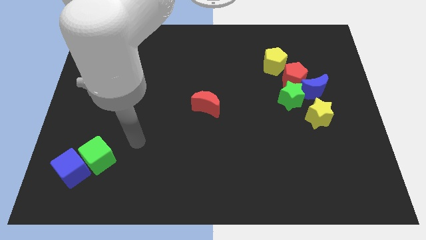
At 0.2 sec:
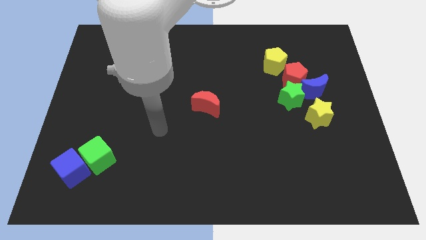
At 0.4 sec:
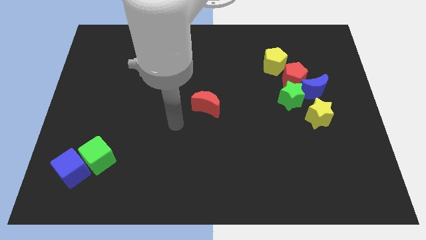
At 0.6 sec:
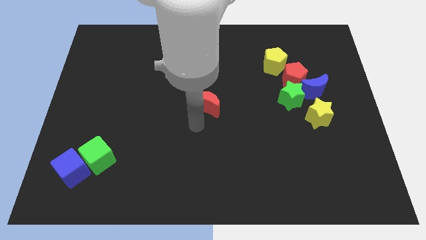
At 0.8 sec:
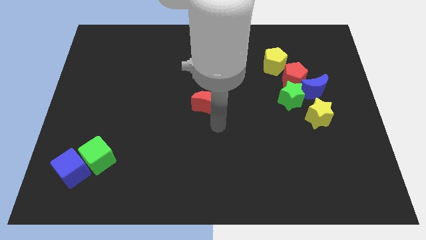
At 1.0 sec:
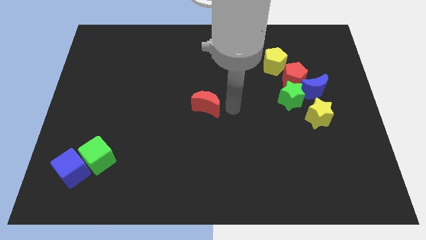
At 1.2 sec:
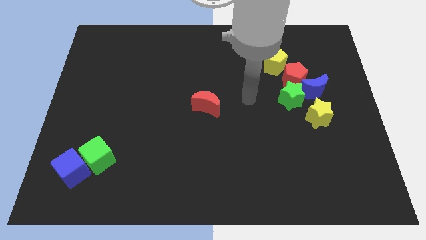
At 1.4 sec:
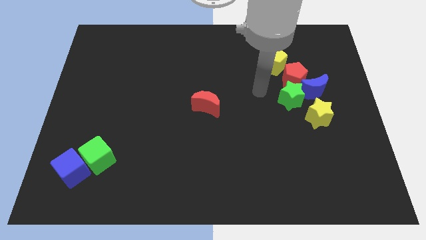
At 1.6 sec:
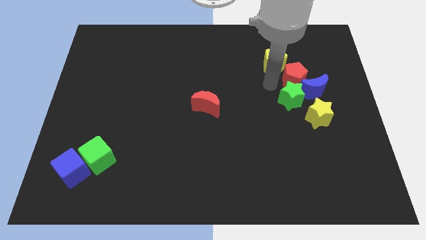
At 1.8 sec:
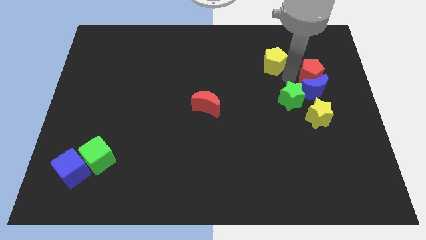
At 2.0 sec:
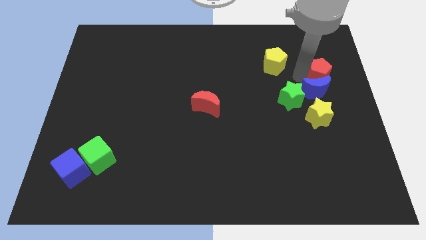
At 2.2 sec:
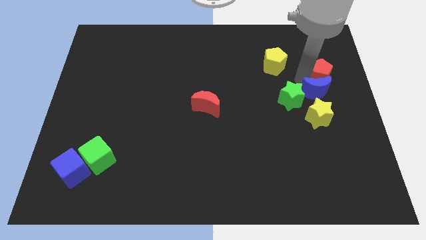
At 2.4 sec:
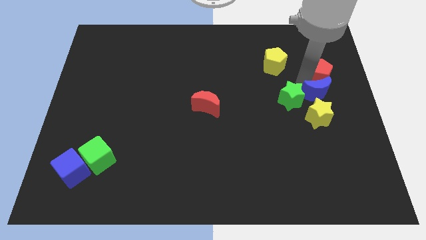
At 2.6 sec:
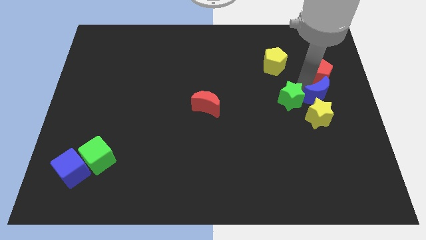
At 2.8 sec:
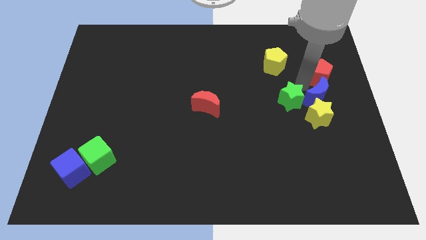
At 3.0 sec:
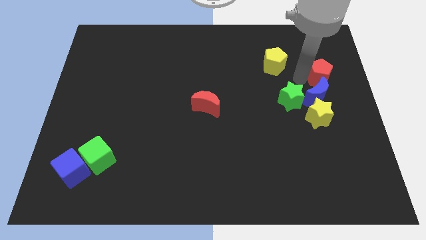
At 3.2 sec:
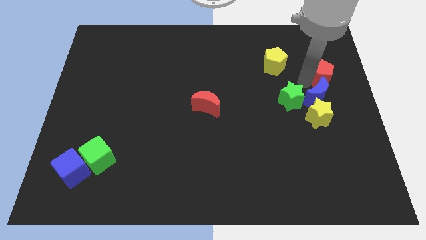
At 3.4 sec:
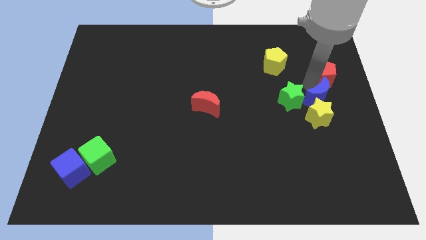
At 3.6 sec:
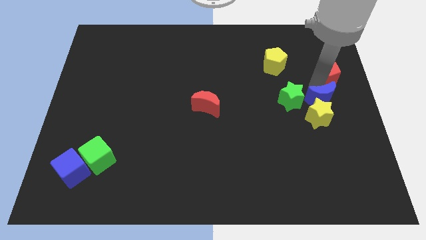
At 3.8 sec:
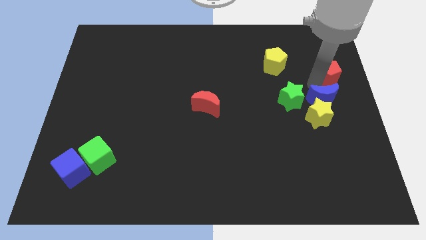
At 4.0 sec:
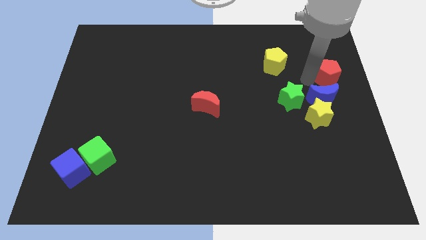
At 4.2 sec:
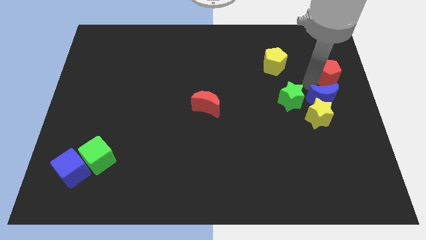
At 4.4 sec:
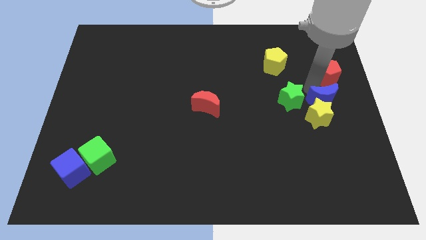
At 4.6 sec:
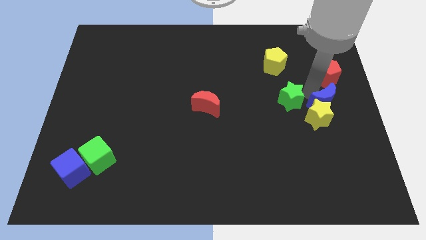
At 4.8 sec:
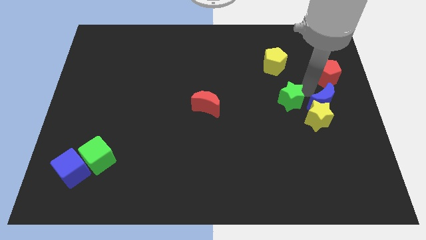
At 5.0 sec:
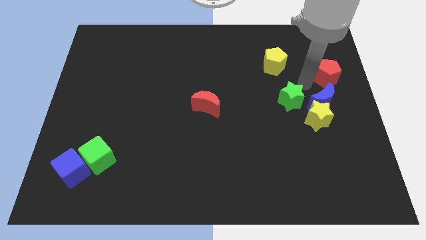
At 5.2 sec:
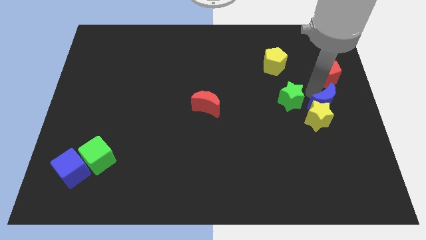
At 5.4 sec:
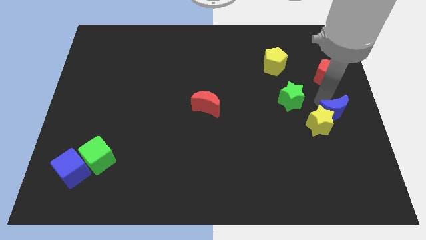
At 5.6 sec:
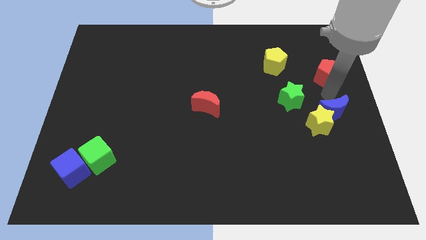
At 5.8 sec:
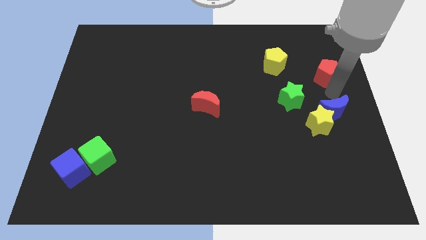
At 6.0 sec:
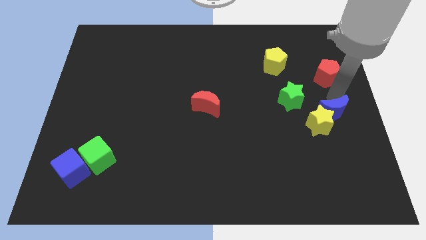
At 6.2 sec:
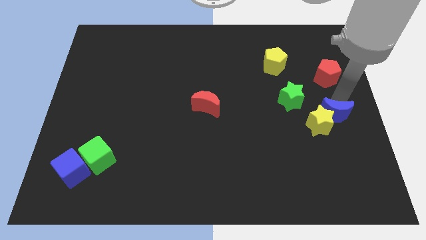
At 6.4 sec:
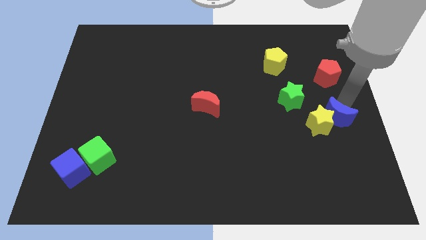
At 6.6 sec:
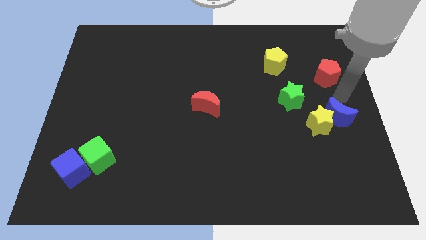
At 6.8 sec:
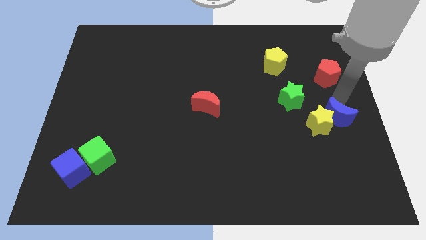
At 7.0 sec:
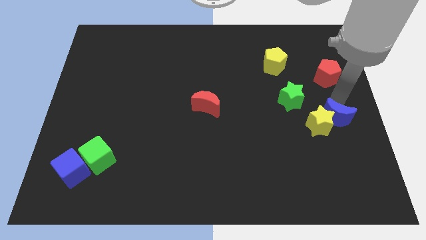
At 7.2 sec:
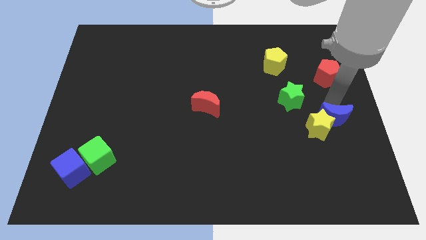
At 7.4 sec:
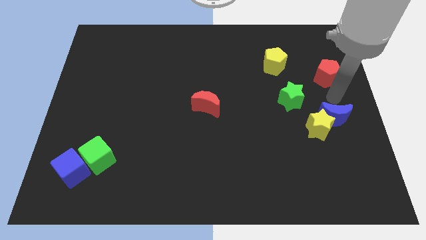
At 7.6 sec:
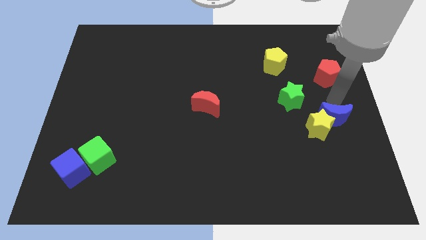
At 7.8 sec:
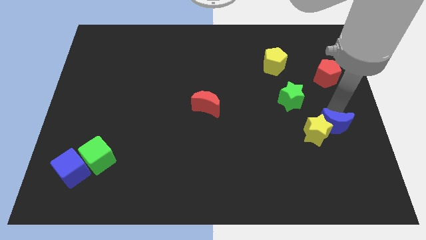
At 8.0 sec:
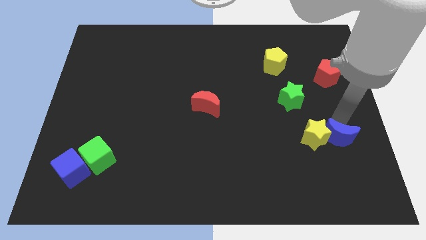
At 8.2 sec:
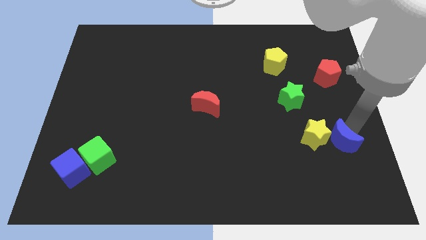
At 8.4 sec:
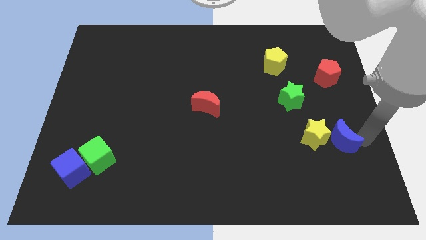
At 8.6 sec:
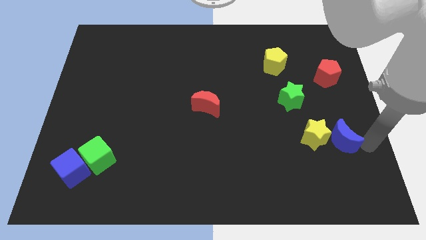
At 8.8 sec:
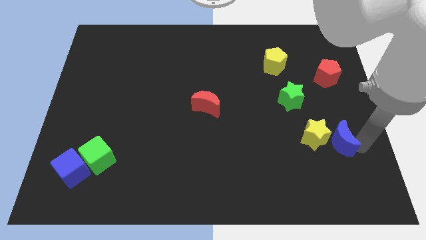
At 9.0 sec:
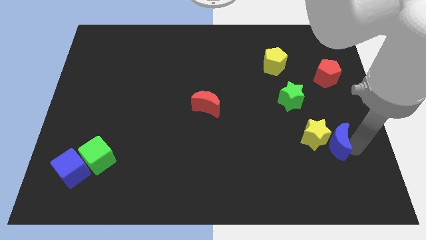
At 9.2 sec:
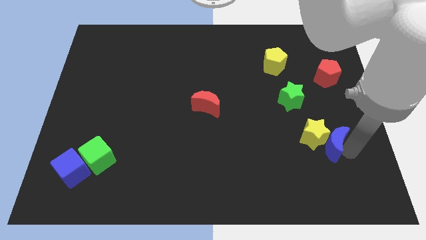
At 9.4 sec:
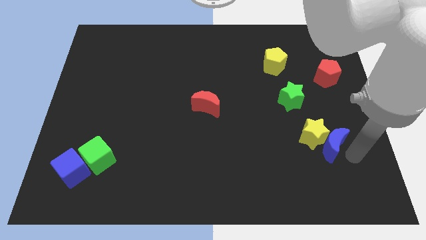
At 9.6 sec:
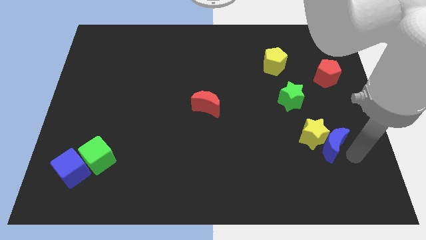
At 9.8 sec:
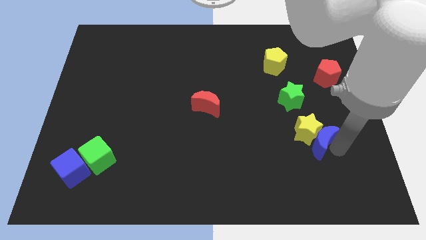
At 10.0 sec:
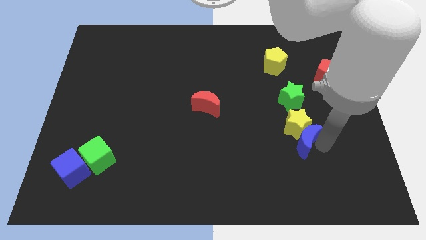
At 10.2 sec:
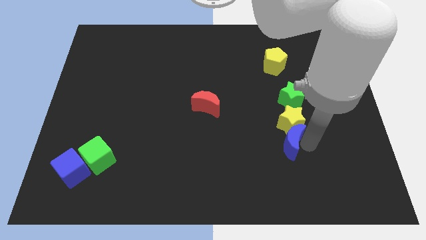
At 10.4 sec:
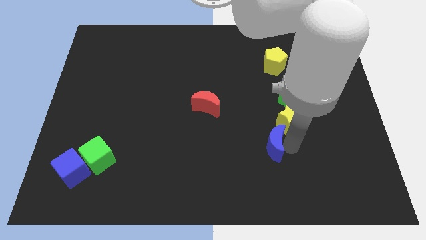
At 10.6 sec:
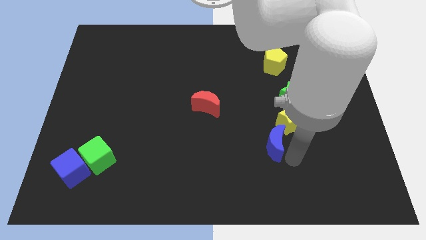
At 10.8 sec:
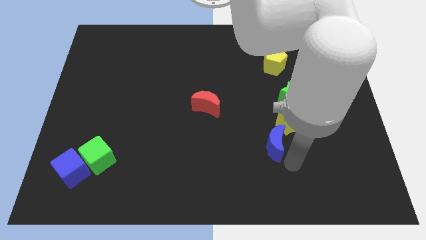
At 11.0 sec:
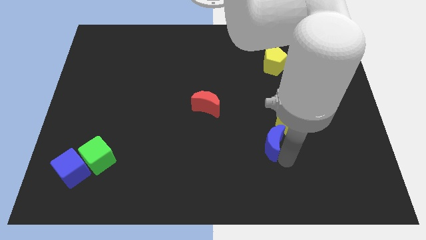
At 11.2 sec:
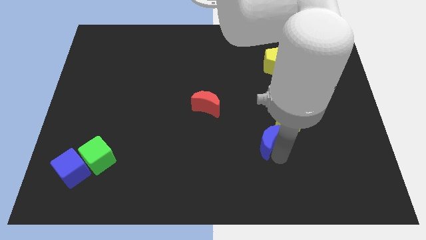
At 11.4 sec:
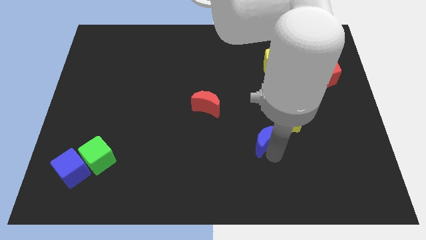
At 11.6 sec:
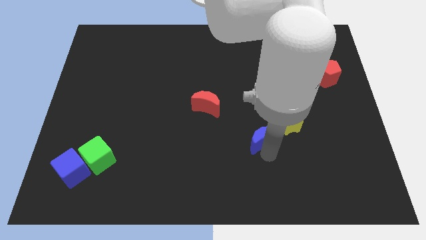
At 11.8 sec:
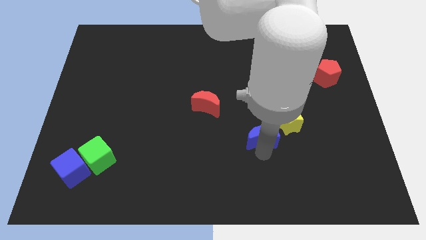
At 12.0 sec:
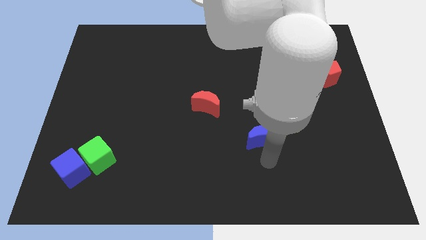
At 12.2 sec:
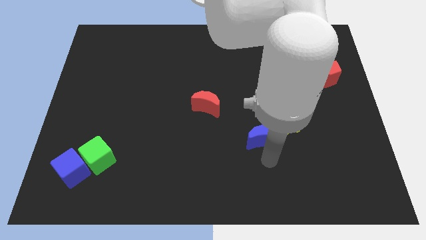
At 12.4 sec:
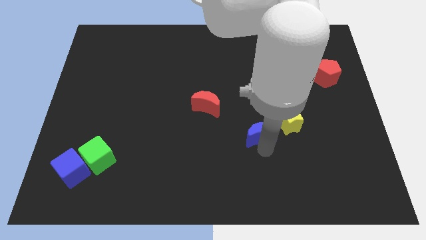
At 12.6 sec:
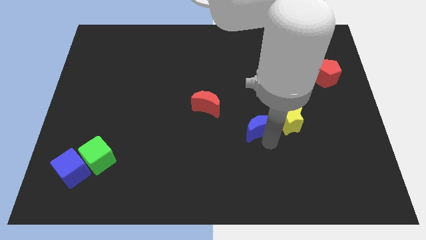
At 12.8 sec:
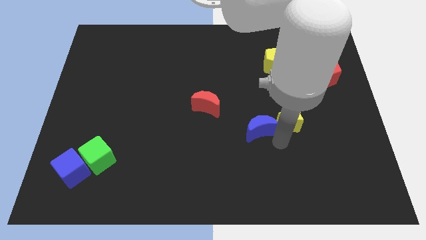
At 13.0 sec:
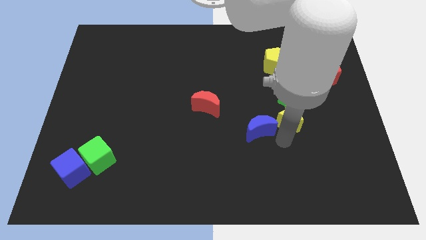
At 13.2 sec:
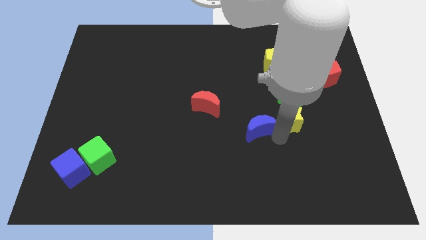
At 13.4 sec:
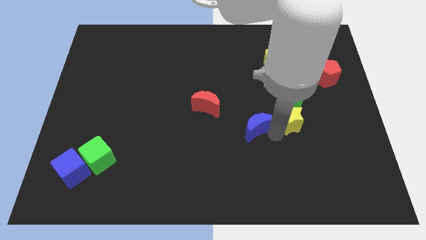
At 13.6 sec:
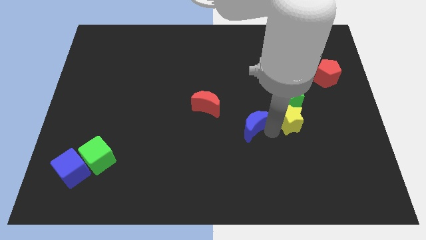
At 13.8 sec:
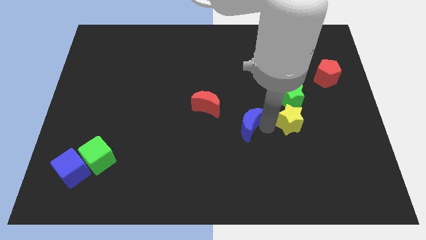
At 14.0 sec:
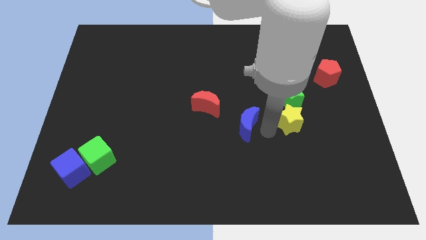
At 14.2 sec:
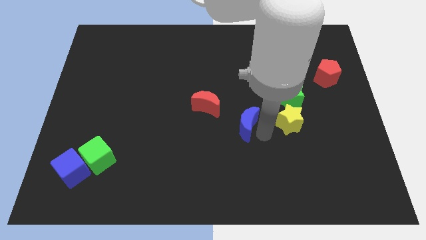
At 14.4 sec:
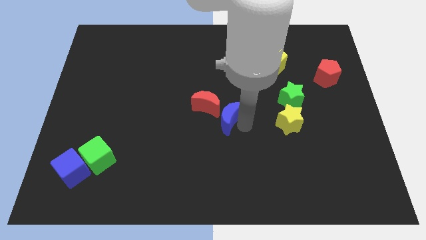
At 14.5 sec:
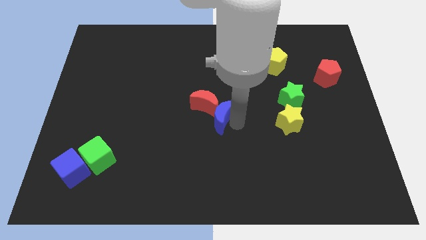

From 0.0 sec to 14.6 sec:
push the blue moon to the red moon

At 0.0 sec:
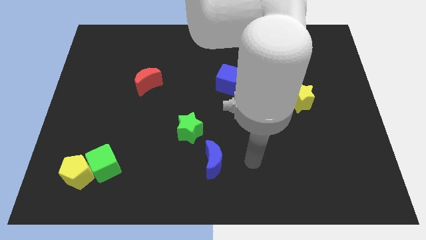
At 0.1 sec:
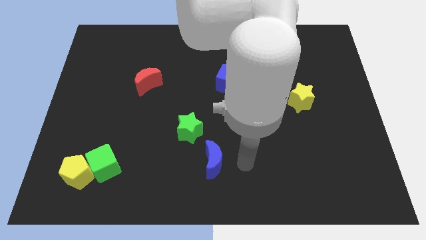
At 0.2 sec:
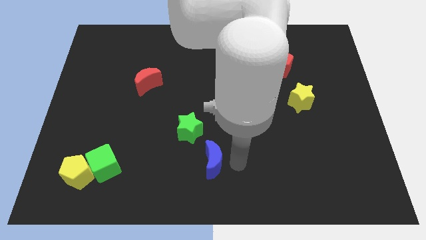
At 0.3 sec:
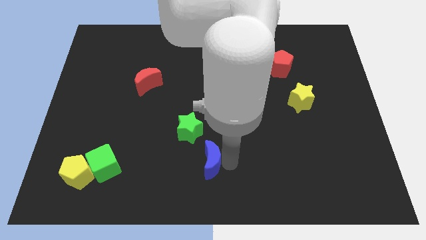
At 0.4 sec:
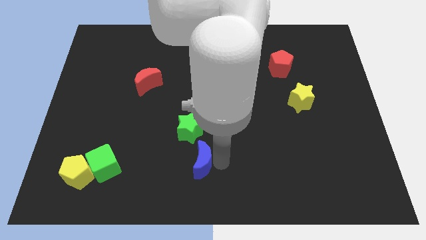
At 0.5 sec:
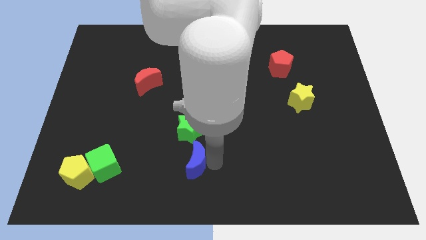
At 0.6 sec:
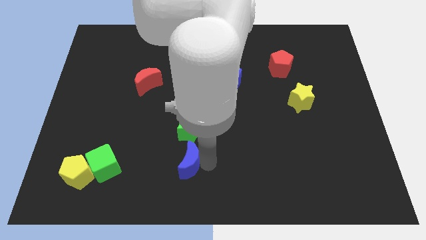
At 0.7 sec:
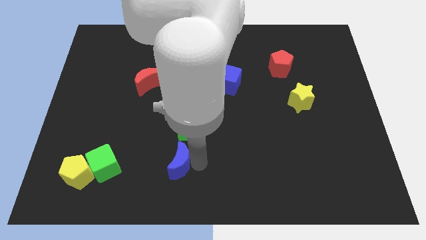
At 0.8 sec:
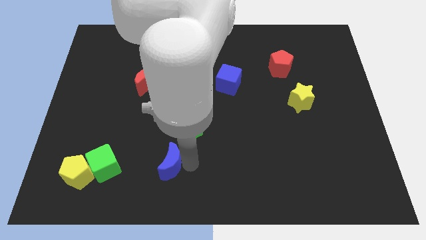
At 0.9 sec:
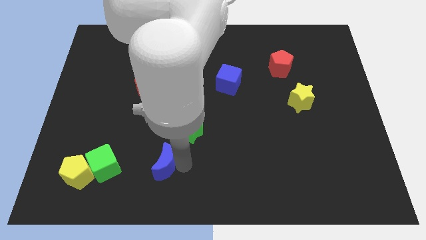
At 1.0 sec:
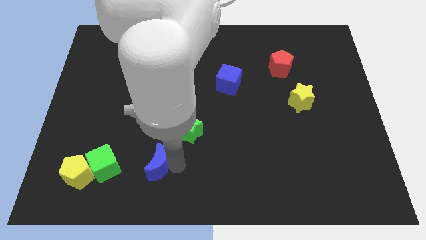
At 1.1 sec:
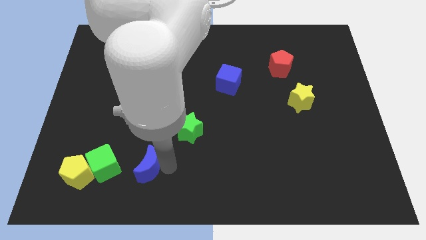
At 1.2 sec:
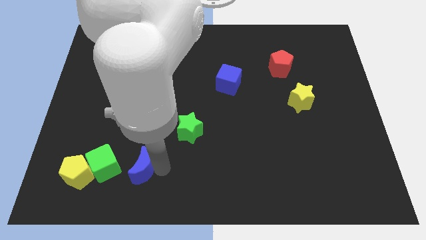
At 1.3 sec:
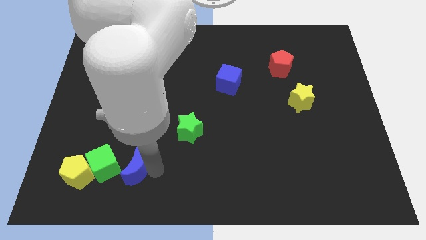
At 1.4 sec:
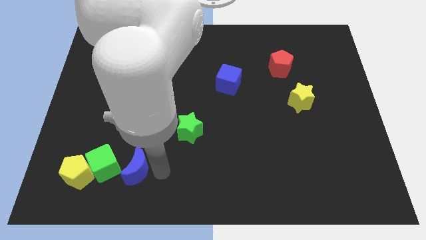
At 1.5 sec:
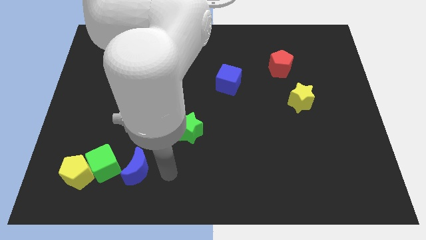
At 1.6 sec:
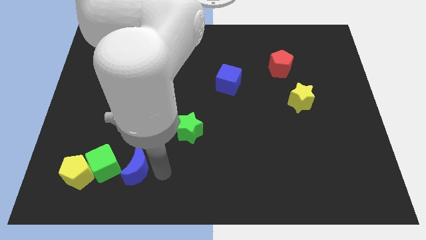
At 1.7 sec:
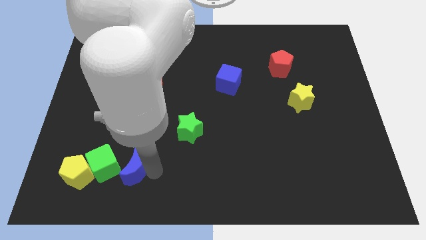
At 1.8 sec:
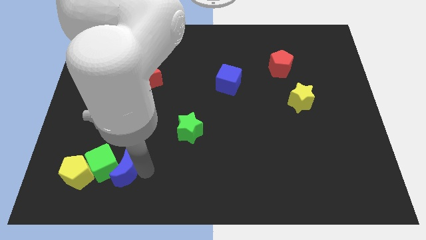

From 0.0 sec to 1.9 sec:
slide the blue moon to the green cube
